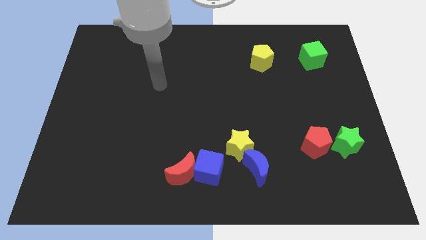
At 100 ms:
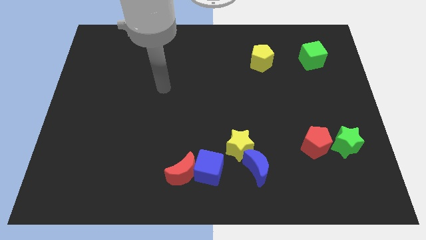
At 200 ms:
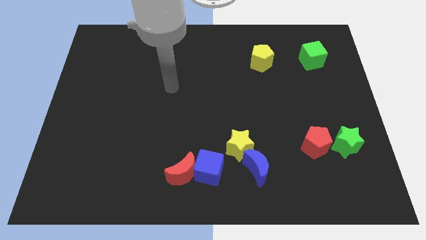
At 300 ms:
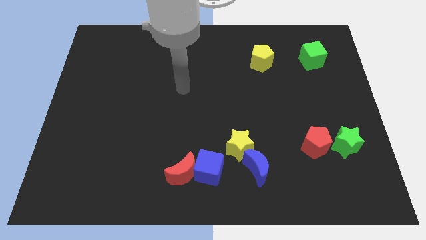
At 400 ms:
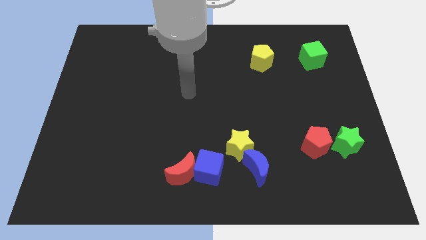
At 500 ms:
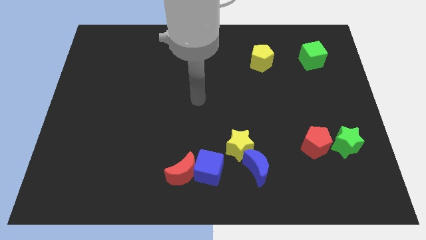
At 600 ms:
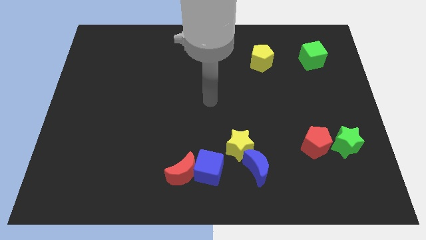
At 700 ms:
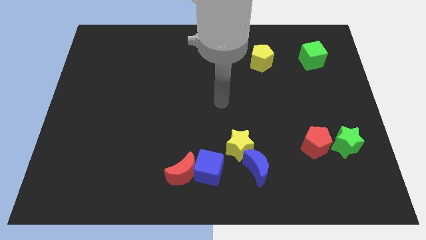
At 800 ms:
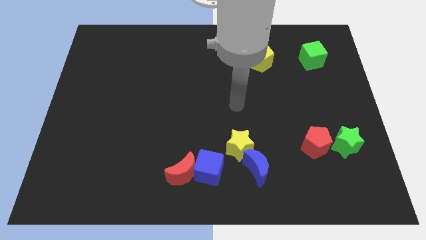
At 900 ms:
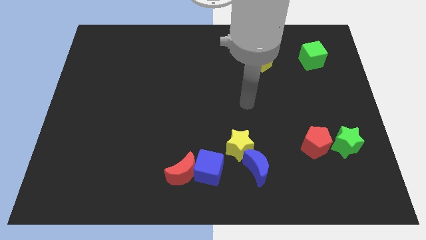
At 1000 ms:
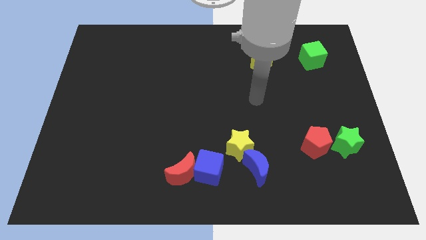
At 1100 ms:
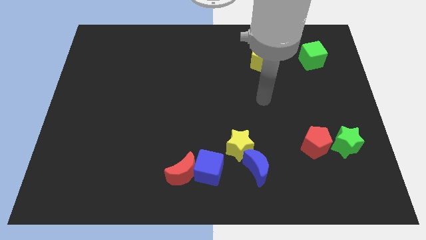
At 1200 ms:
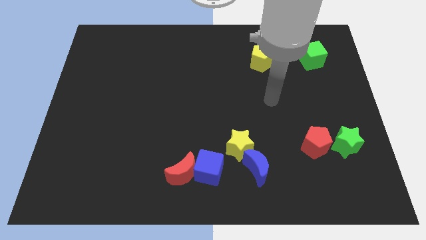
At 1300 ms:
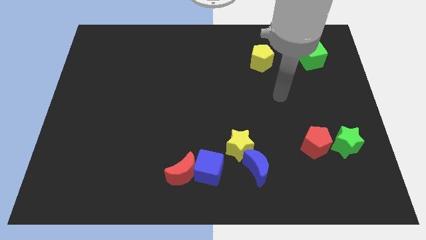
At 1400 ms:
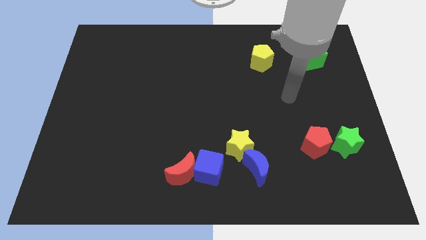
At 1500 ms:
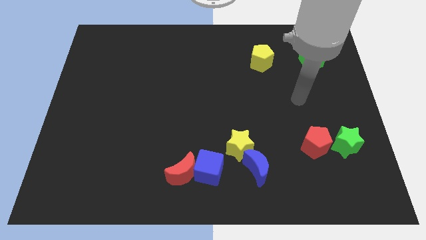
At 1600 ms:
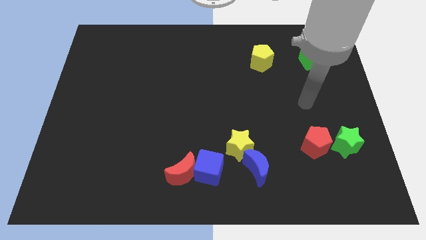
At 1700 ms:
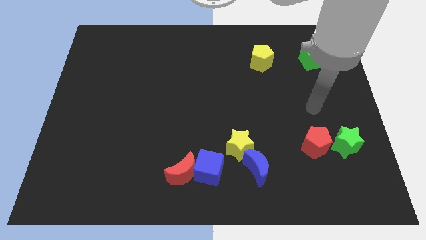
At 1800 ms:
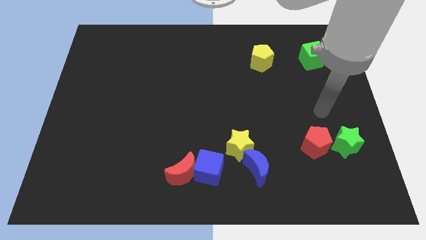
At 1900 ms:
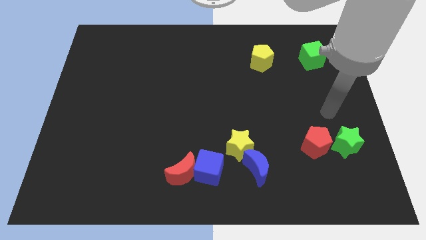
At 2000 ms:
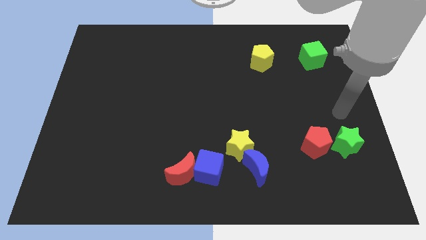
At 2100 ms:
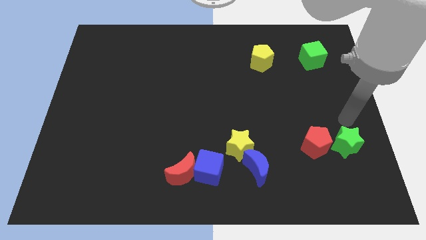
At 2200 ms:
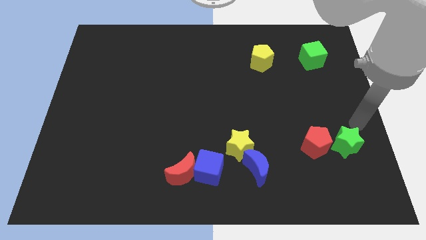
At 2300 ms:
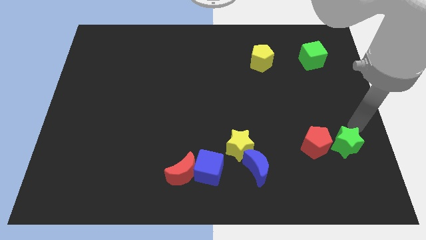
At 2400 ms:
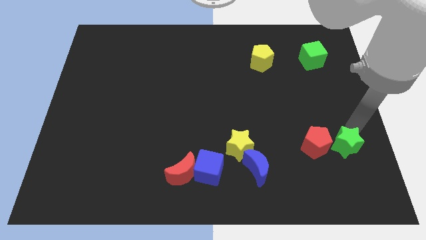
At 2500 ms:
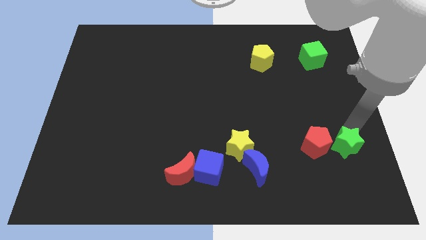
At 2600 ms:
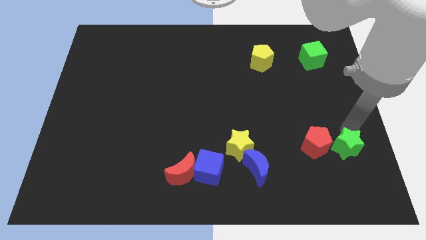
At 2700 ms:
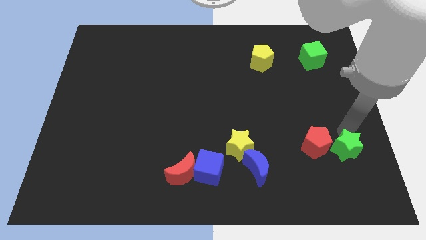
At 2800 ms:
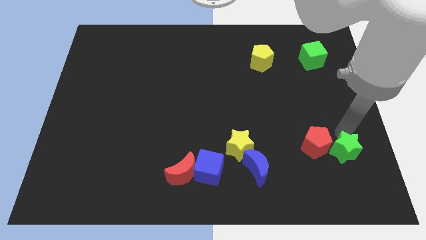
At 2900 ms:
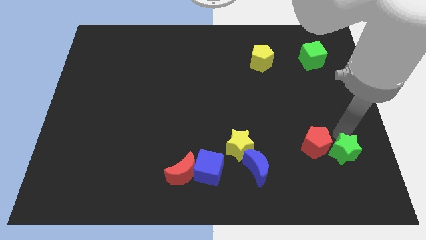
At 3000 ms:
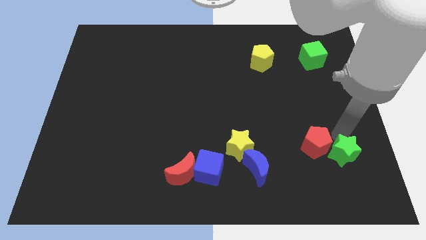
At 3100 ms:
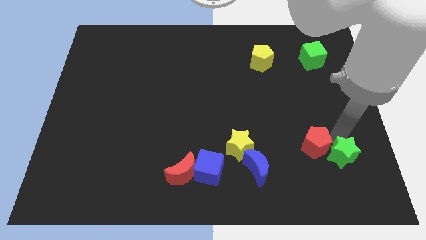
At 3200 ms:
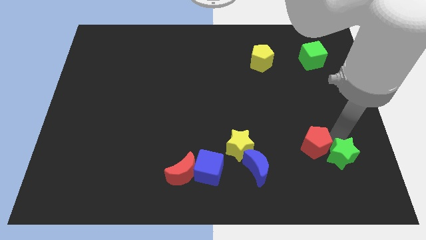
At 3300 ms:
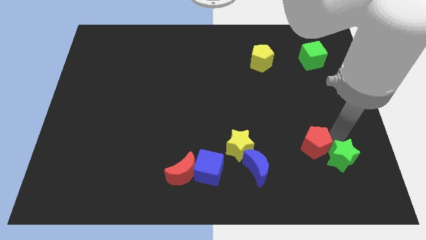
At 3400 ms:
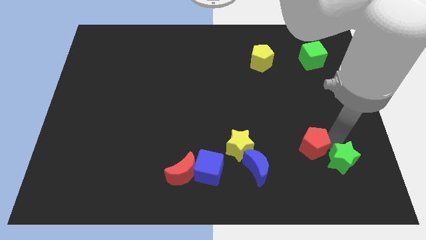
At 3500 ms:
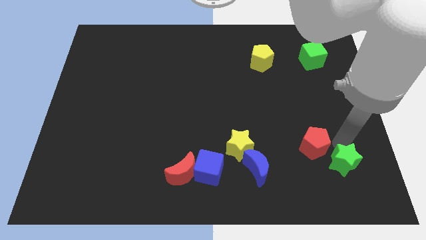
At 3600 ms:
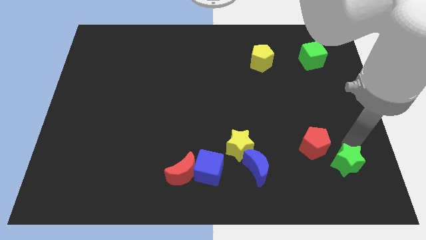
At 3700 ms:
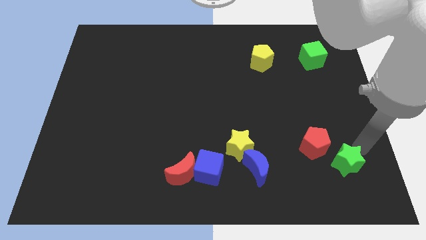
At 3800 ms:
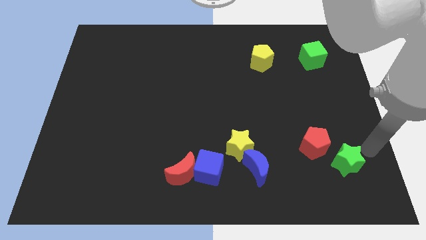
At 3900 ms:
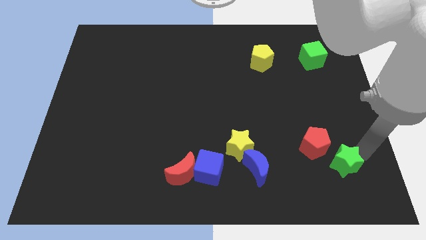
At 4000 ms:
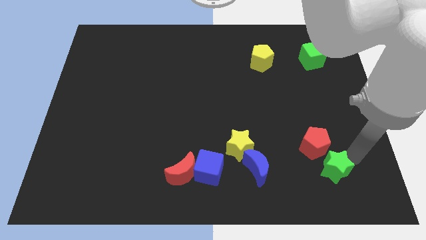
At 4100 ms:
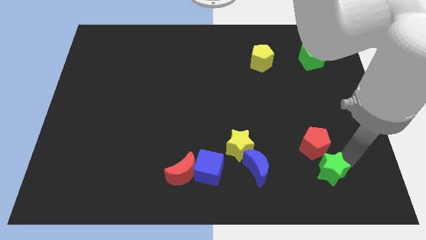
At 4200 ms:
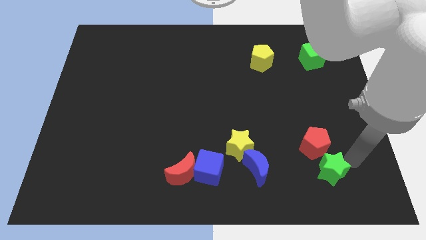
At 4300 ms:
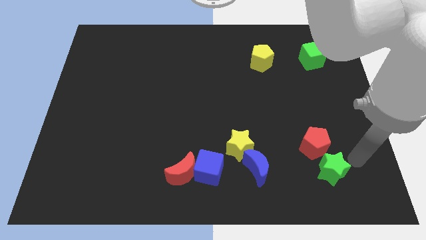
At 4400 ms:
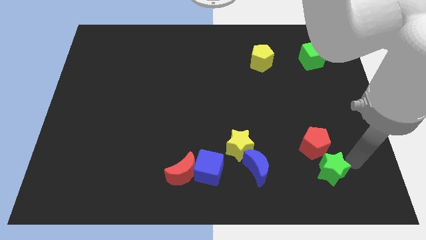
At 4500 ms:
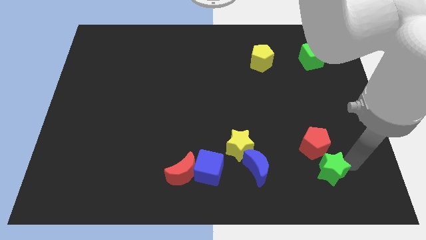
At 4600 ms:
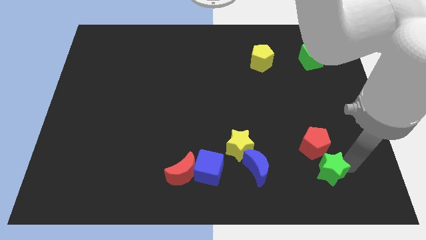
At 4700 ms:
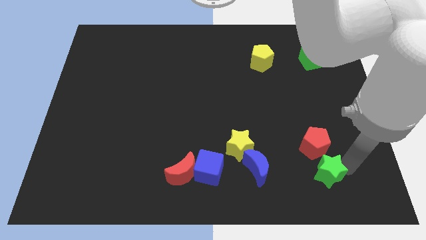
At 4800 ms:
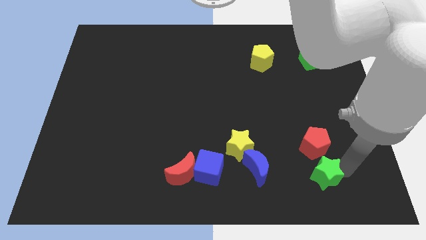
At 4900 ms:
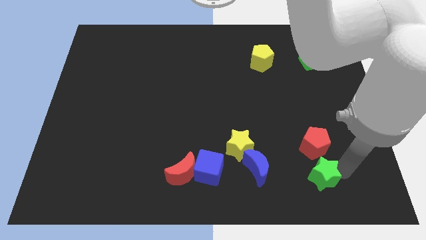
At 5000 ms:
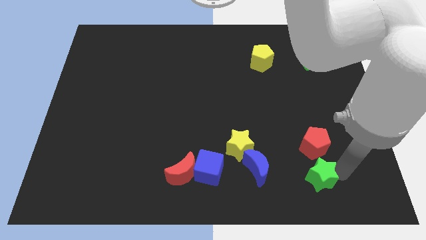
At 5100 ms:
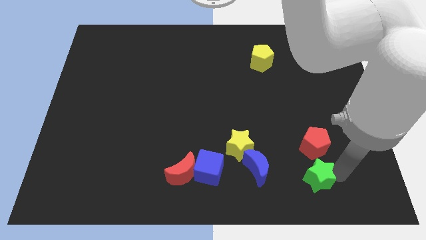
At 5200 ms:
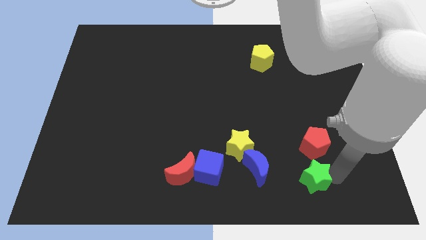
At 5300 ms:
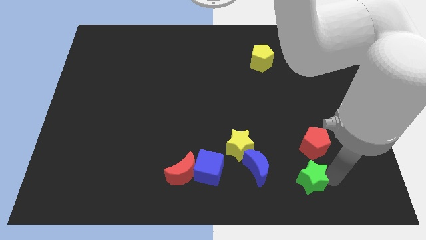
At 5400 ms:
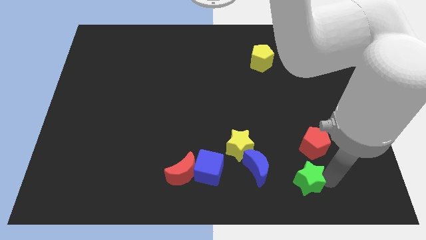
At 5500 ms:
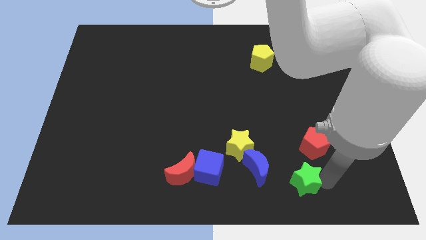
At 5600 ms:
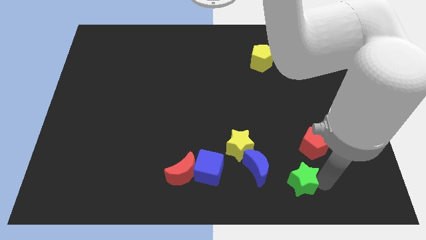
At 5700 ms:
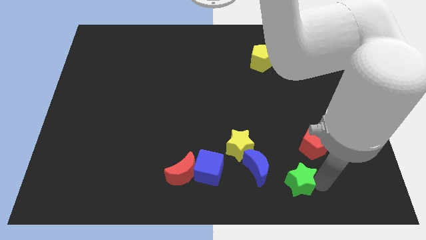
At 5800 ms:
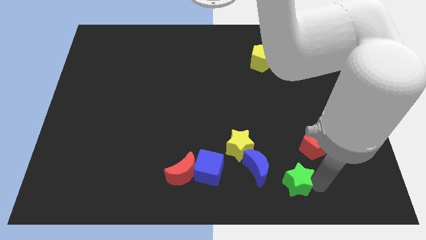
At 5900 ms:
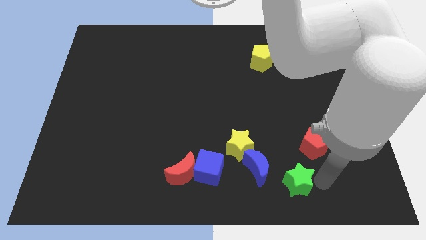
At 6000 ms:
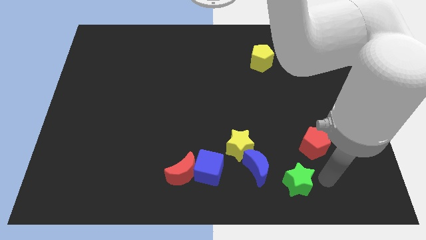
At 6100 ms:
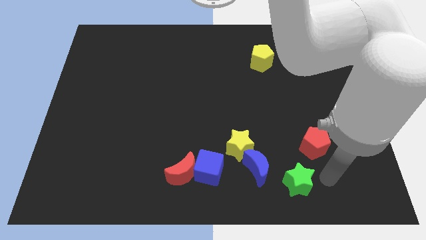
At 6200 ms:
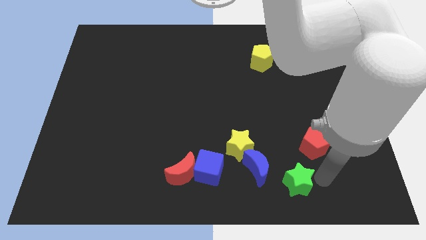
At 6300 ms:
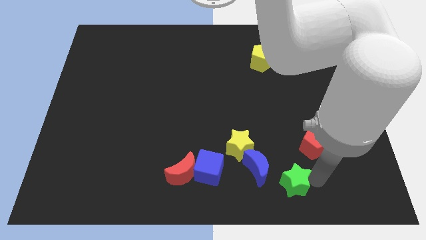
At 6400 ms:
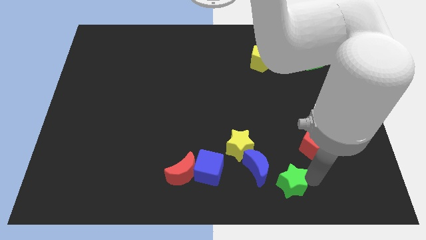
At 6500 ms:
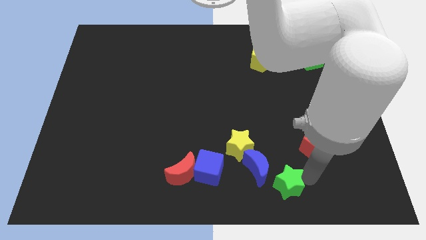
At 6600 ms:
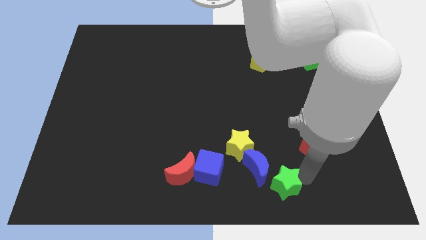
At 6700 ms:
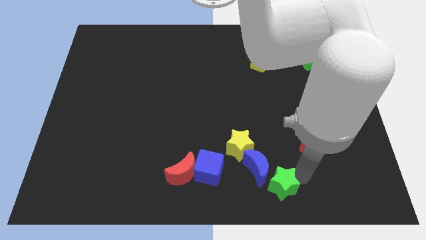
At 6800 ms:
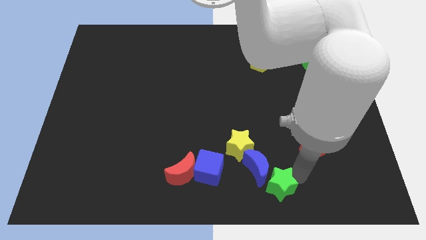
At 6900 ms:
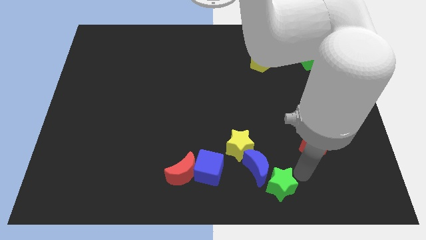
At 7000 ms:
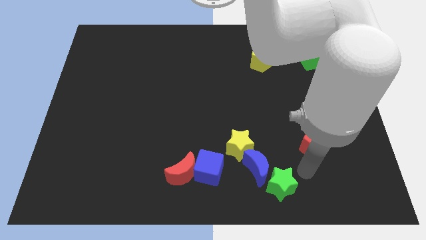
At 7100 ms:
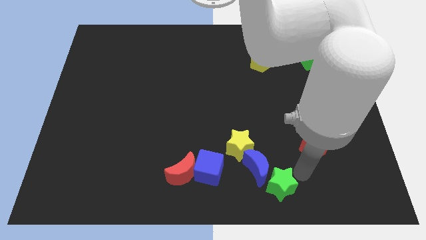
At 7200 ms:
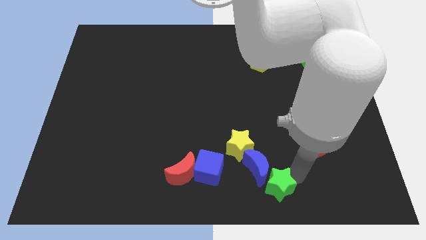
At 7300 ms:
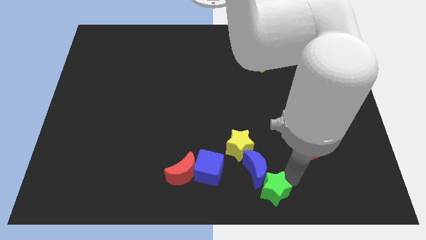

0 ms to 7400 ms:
put the green star to the bottom side
